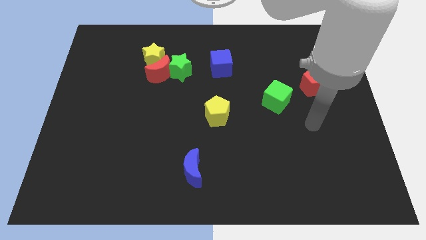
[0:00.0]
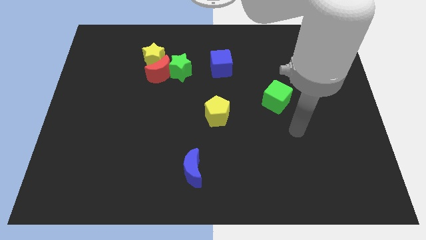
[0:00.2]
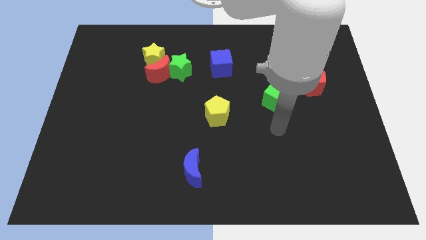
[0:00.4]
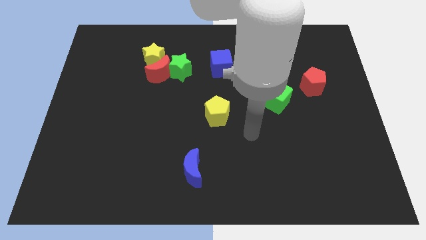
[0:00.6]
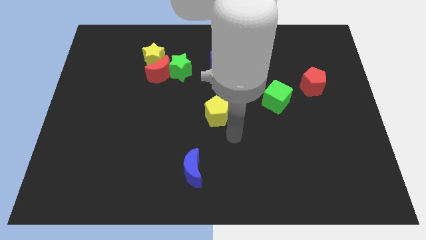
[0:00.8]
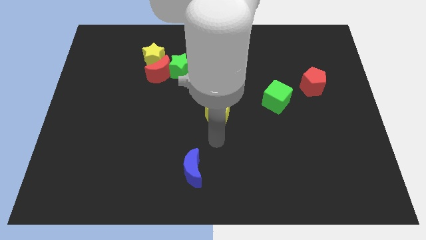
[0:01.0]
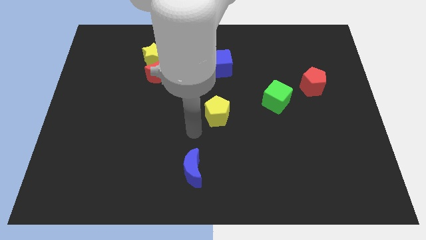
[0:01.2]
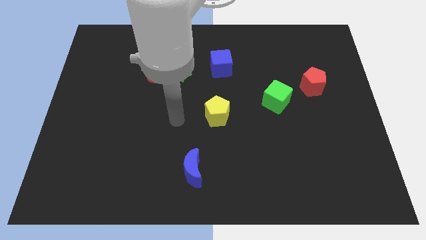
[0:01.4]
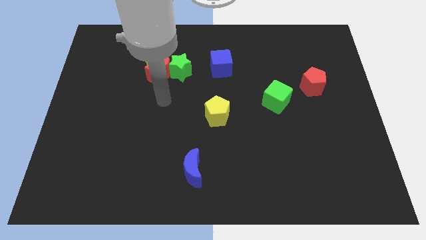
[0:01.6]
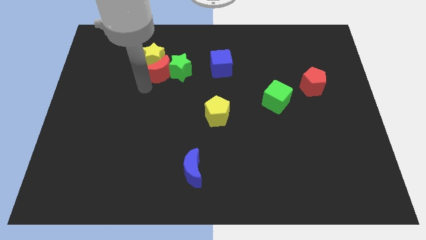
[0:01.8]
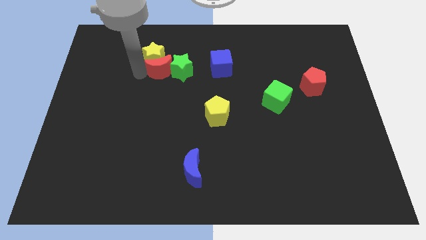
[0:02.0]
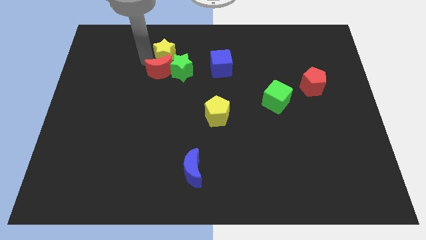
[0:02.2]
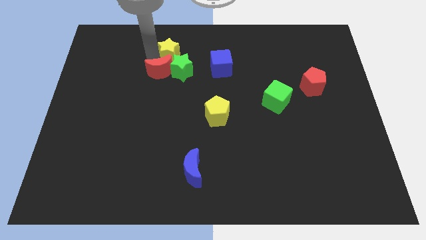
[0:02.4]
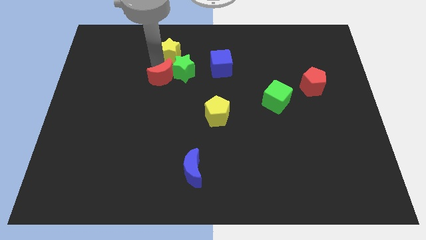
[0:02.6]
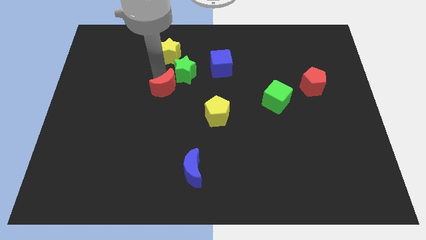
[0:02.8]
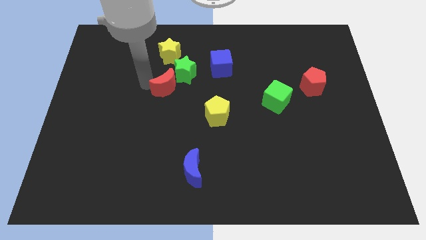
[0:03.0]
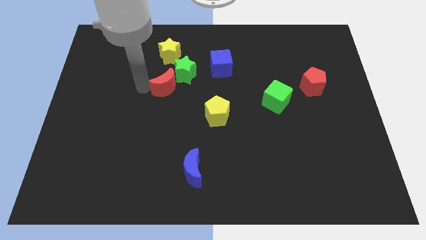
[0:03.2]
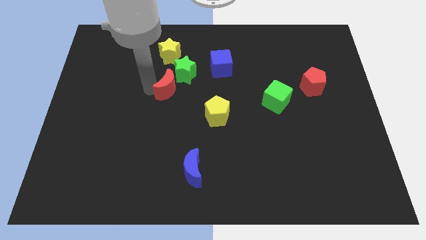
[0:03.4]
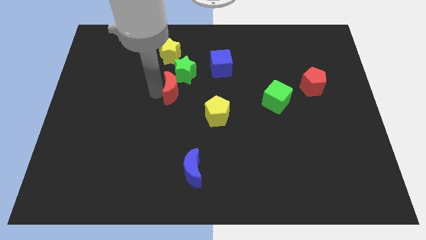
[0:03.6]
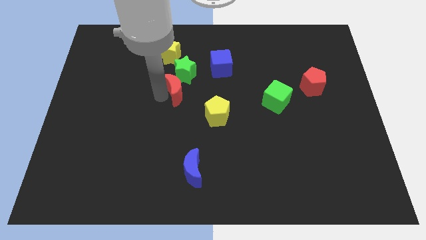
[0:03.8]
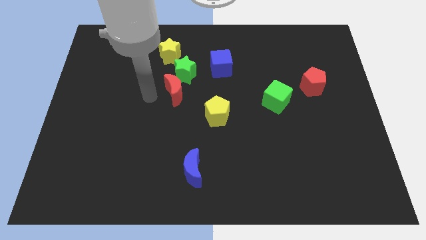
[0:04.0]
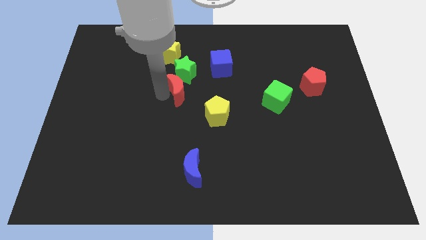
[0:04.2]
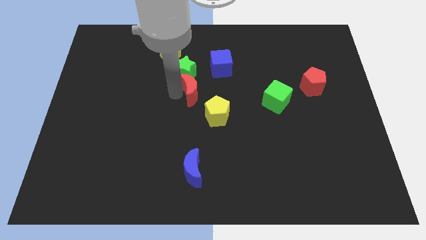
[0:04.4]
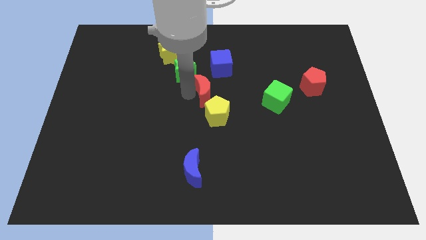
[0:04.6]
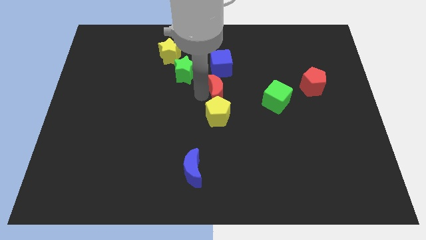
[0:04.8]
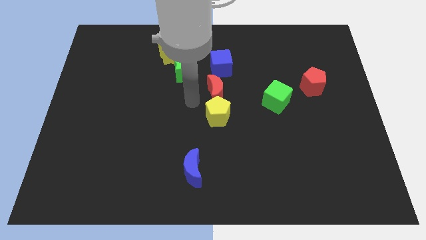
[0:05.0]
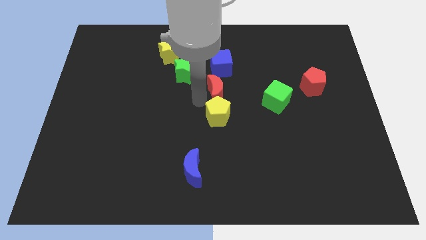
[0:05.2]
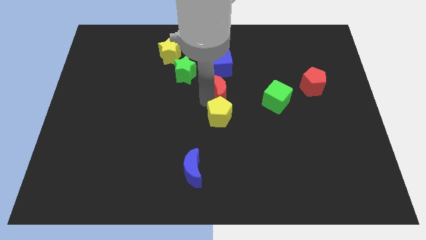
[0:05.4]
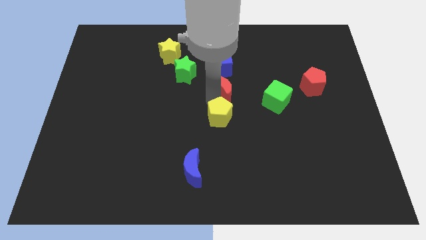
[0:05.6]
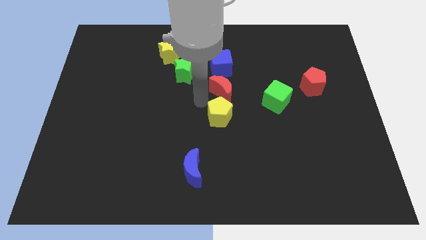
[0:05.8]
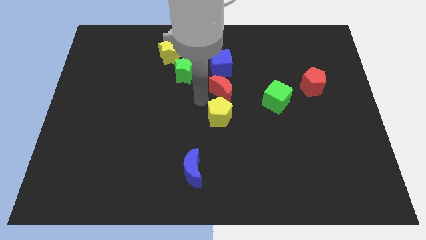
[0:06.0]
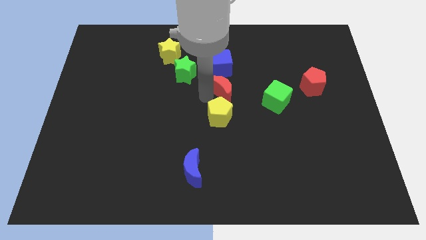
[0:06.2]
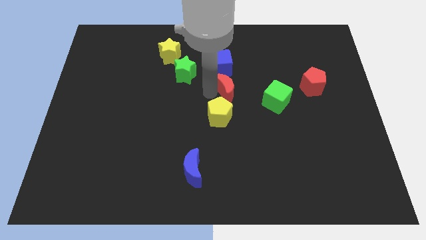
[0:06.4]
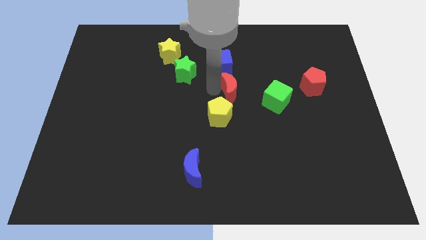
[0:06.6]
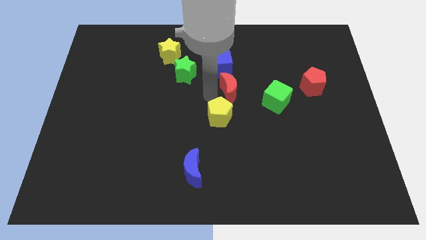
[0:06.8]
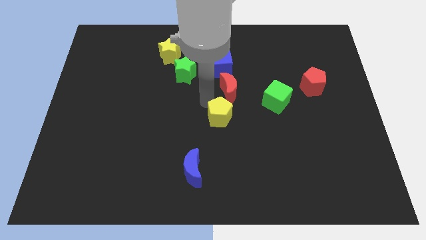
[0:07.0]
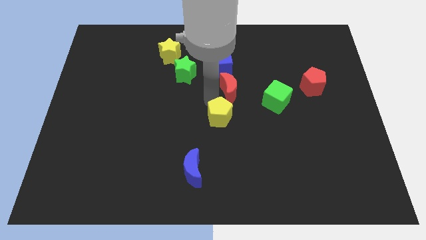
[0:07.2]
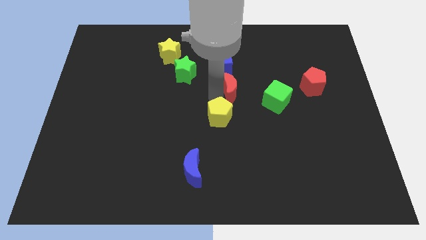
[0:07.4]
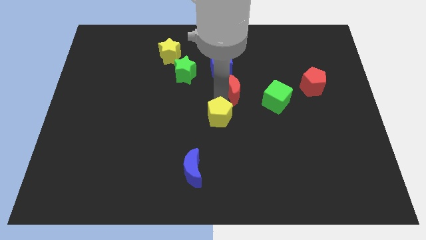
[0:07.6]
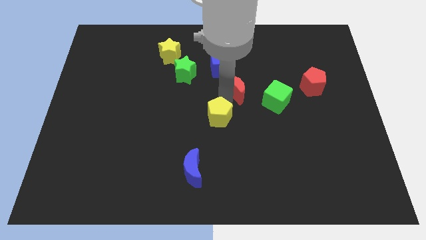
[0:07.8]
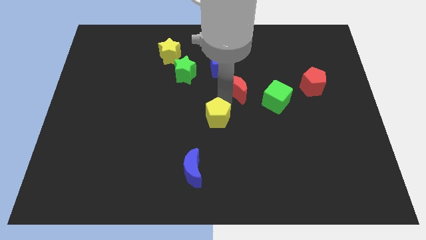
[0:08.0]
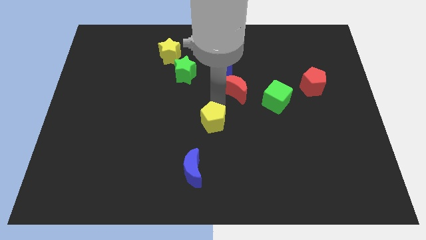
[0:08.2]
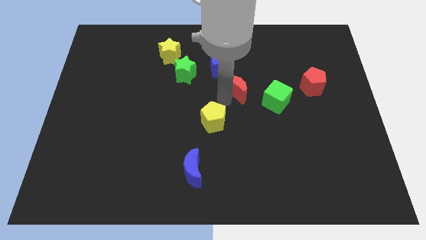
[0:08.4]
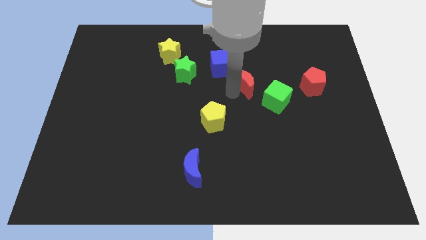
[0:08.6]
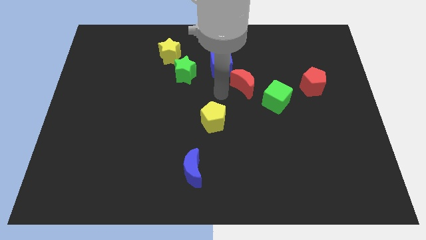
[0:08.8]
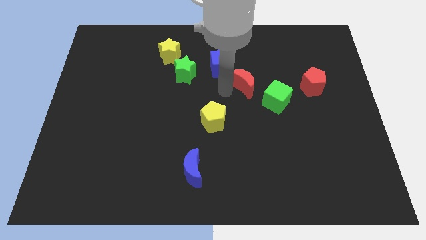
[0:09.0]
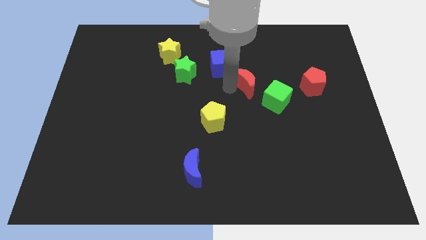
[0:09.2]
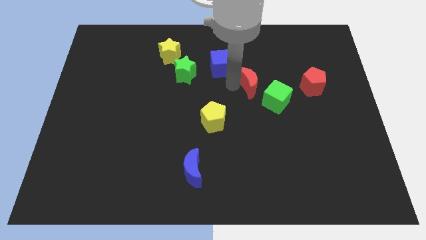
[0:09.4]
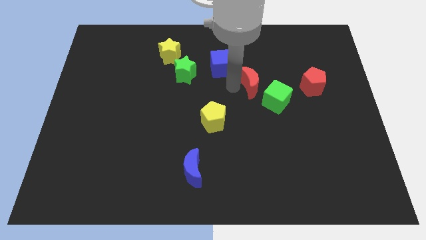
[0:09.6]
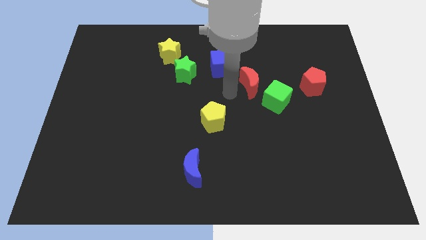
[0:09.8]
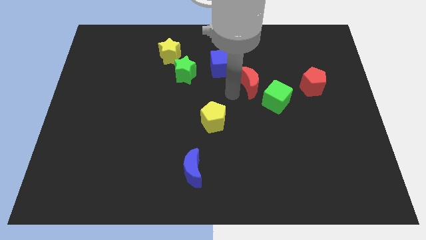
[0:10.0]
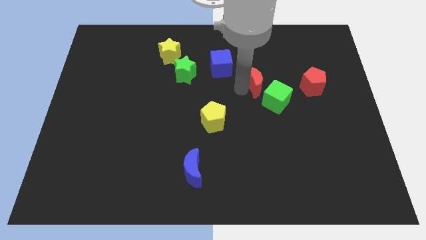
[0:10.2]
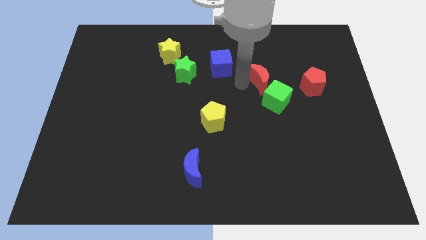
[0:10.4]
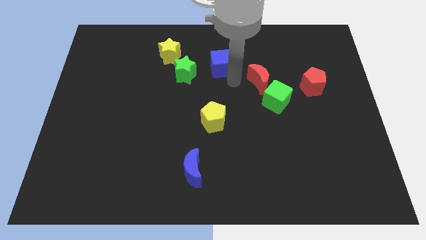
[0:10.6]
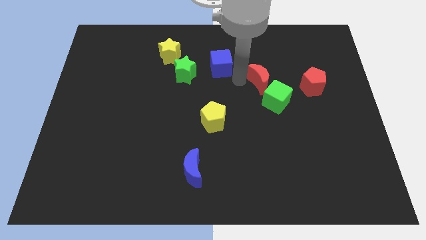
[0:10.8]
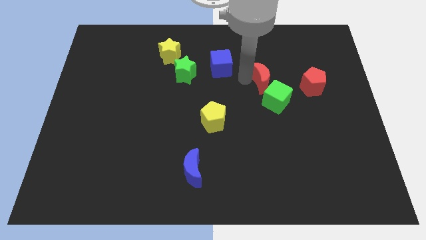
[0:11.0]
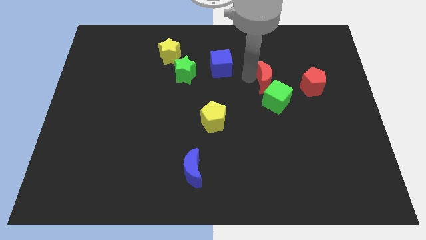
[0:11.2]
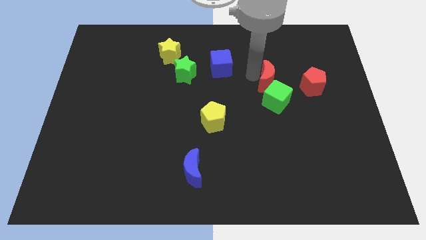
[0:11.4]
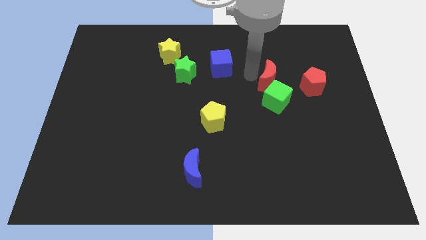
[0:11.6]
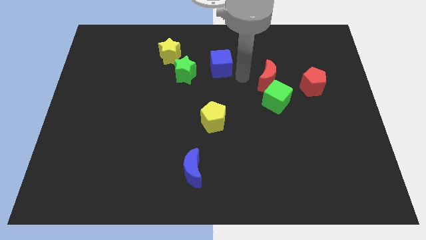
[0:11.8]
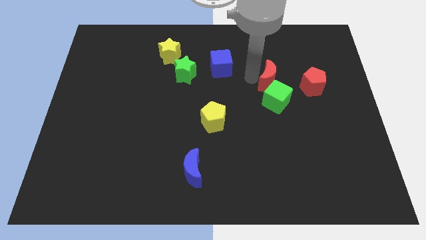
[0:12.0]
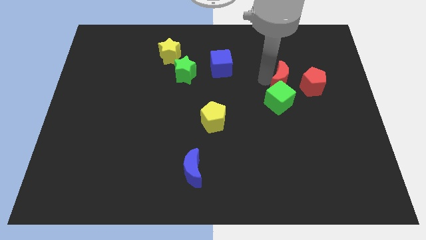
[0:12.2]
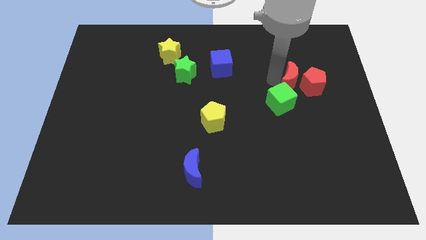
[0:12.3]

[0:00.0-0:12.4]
slide the red moon next to the red pentagon

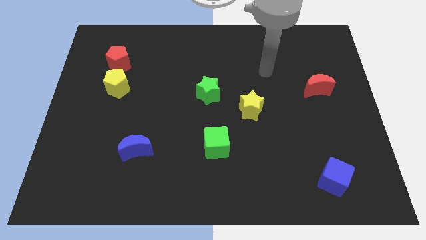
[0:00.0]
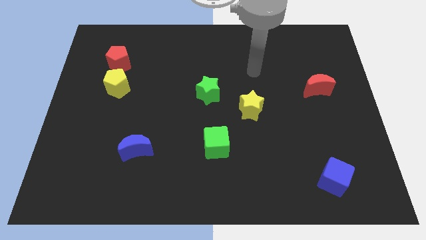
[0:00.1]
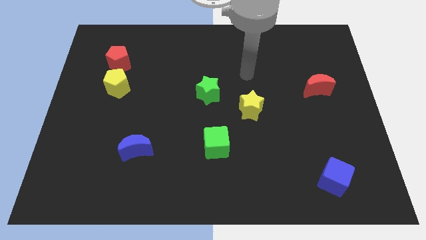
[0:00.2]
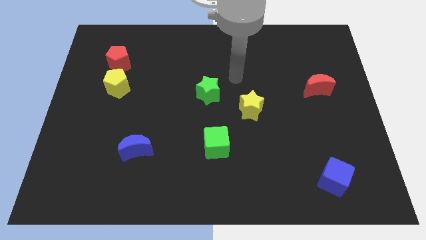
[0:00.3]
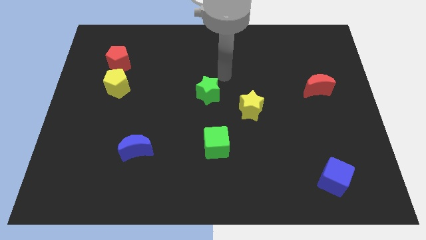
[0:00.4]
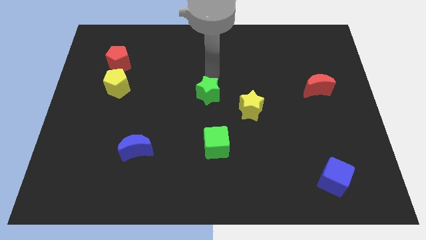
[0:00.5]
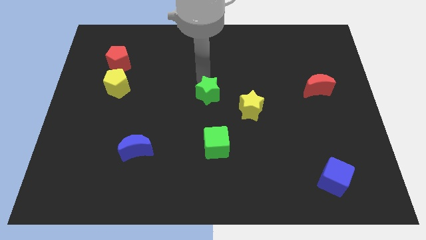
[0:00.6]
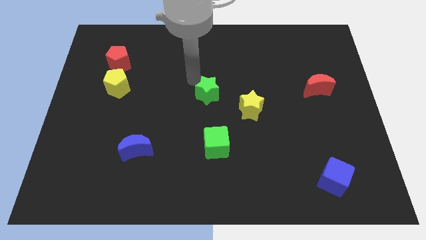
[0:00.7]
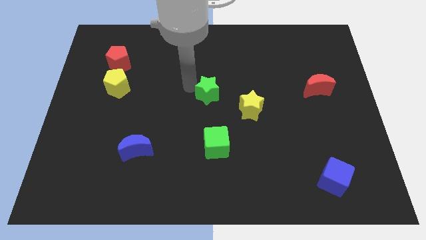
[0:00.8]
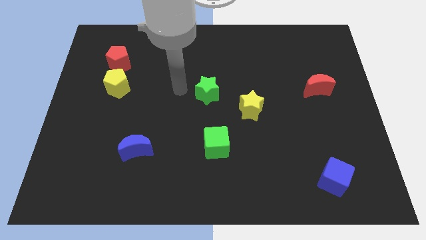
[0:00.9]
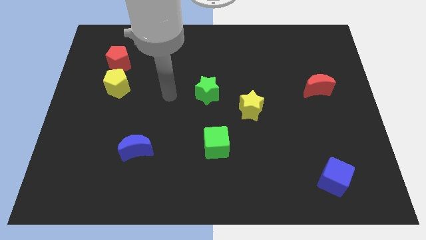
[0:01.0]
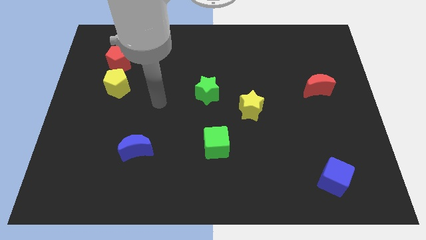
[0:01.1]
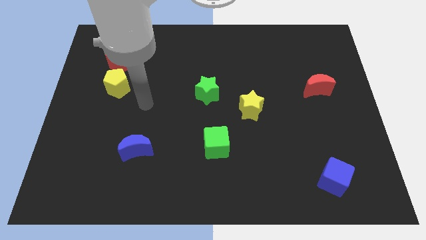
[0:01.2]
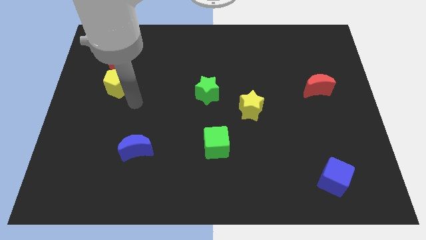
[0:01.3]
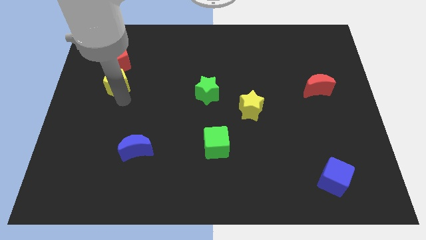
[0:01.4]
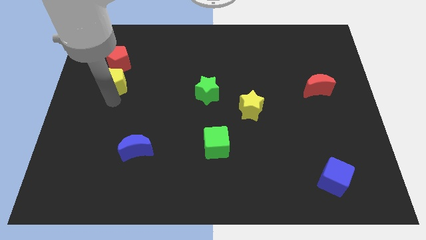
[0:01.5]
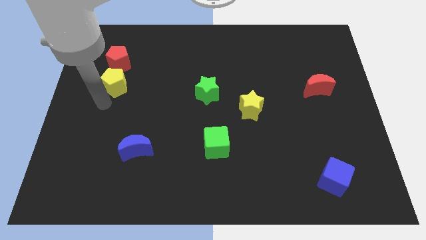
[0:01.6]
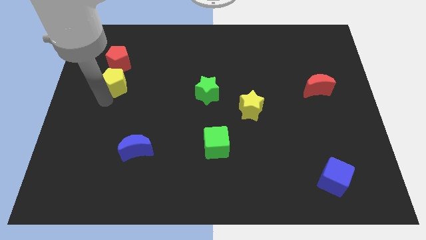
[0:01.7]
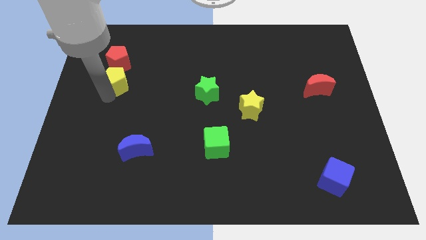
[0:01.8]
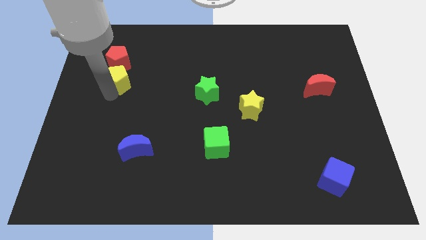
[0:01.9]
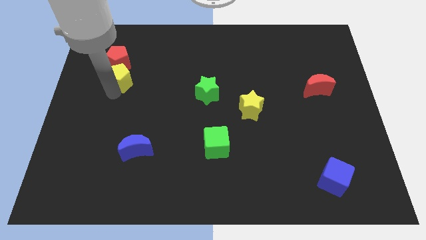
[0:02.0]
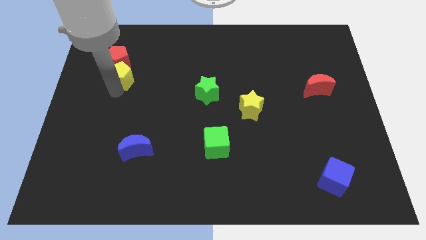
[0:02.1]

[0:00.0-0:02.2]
slide the yellow pentagon next to the red pentagon
